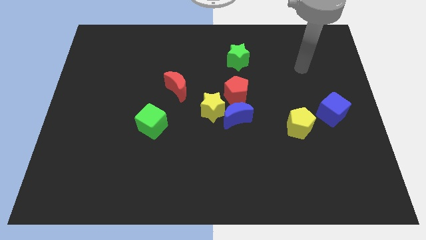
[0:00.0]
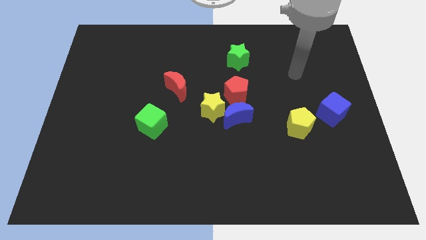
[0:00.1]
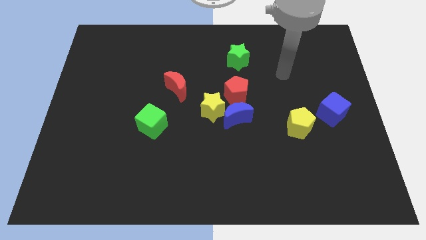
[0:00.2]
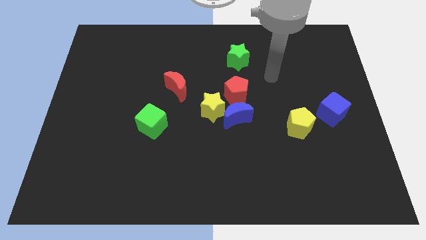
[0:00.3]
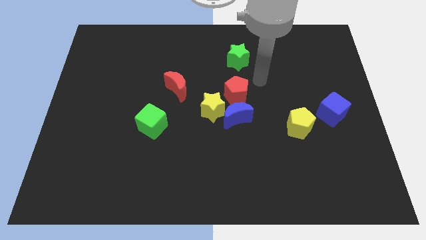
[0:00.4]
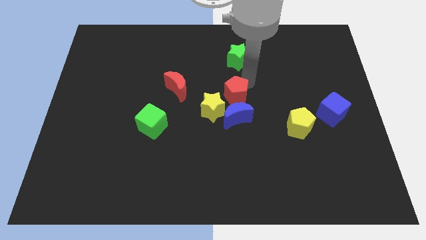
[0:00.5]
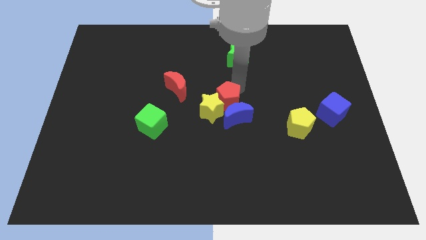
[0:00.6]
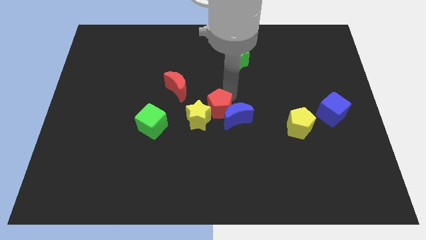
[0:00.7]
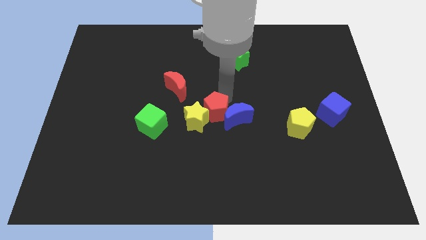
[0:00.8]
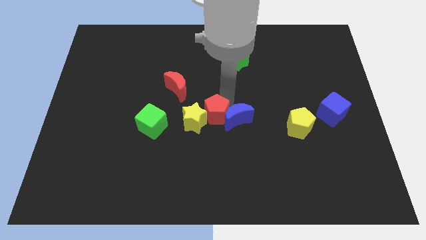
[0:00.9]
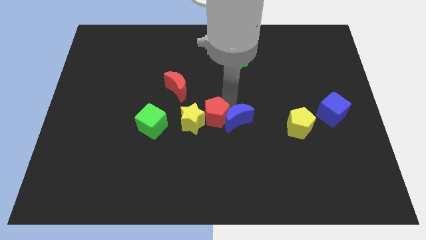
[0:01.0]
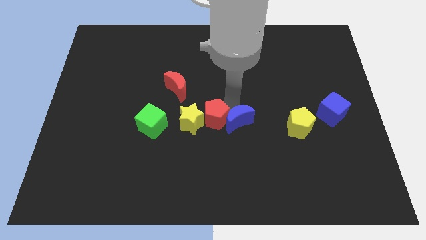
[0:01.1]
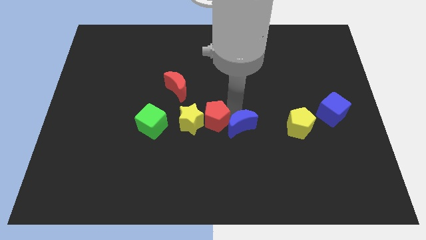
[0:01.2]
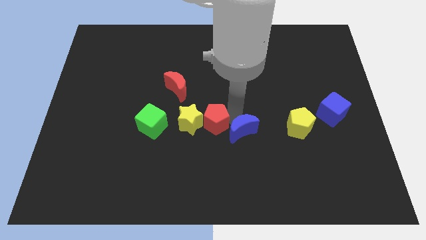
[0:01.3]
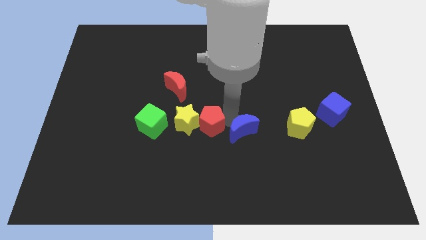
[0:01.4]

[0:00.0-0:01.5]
pull the blue moon apart from the yellow star and red pentagon

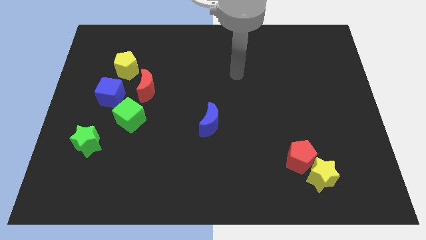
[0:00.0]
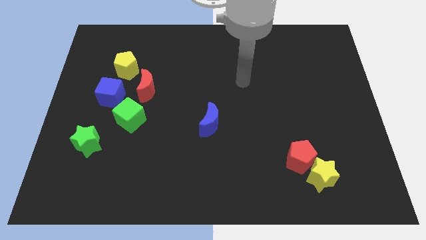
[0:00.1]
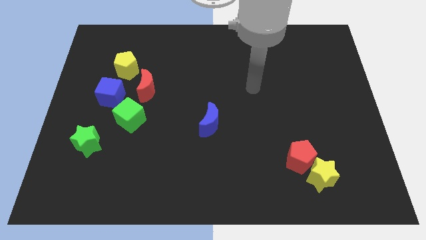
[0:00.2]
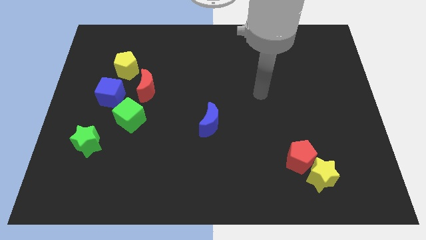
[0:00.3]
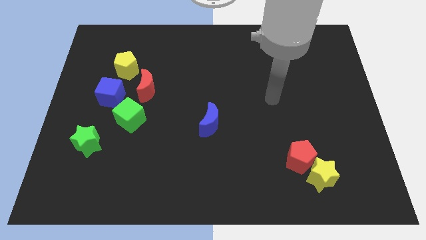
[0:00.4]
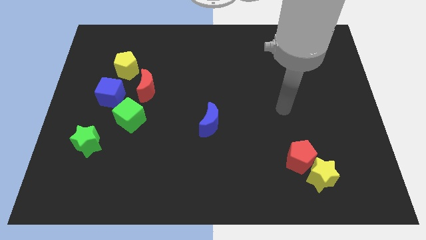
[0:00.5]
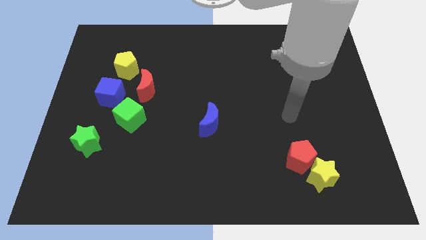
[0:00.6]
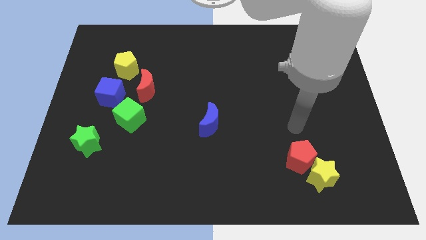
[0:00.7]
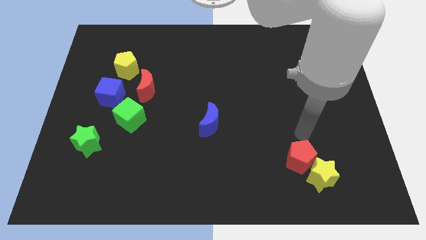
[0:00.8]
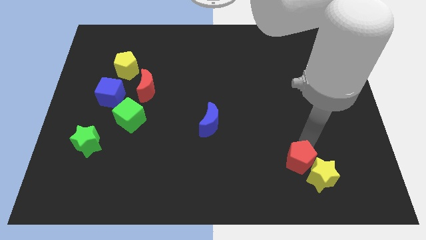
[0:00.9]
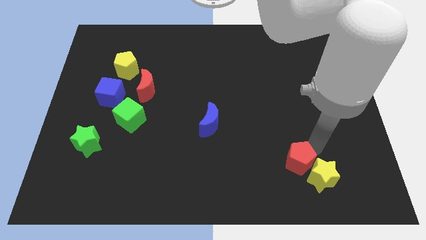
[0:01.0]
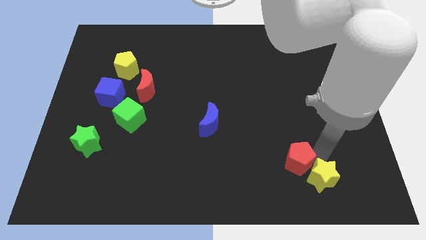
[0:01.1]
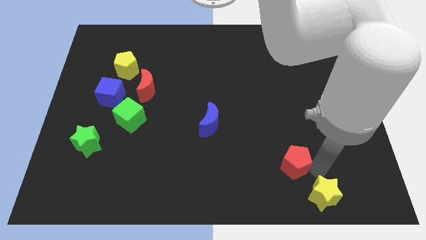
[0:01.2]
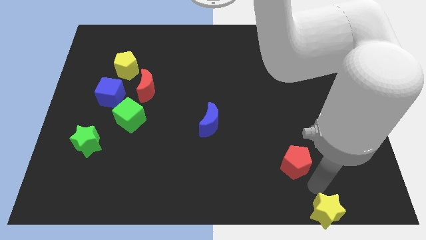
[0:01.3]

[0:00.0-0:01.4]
move the red pentagon away from the yellow star

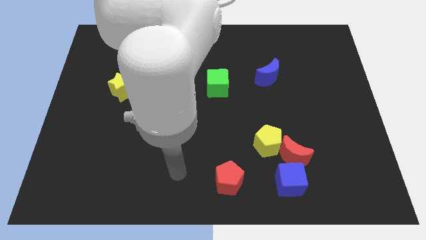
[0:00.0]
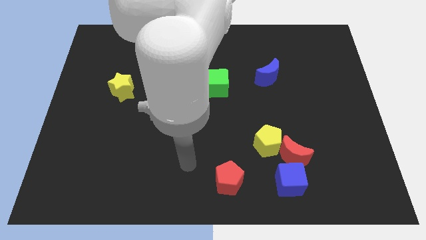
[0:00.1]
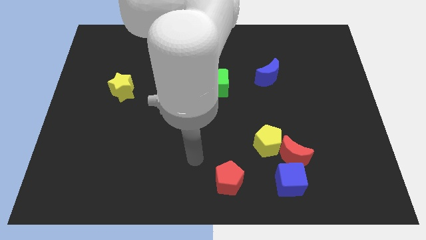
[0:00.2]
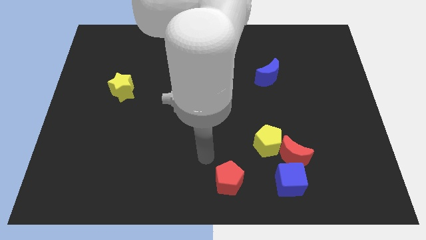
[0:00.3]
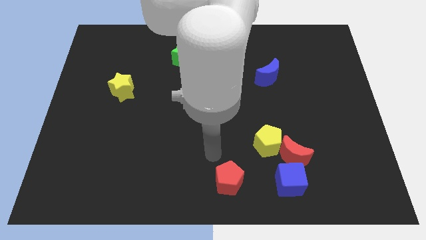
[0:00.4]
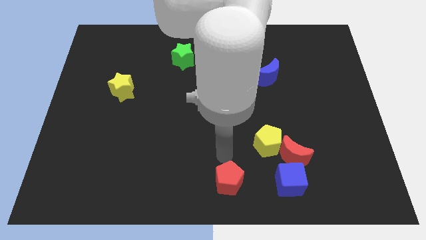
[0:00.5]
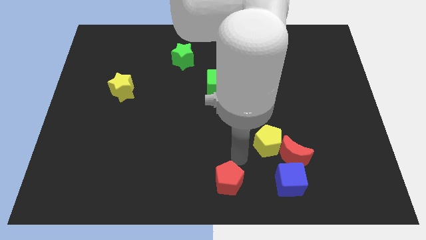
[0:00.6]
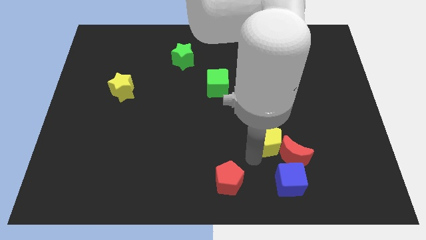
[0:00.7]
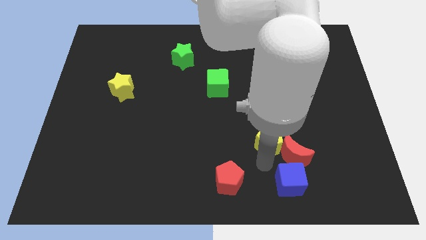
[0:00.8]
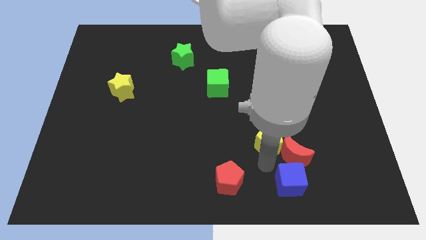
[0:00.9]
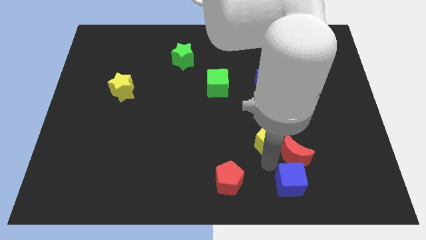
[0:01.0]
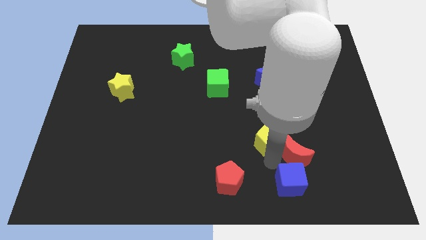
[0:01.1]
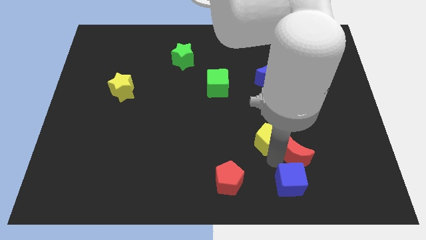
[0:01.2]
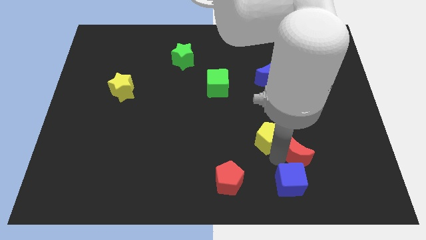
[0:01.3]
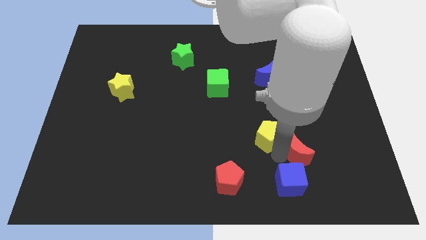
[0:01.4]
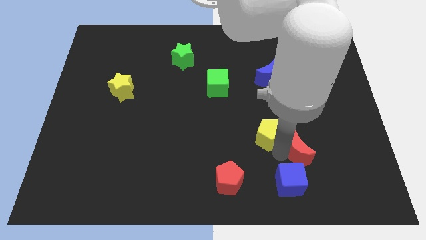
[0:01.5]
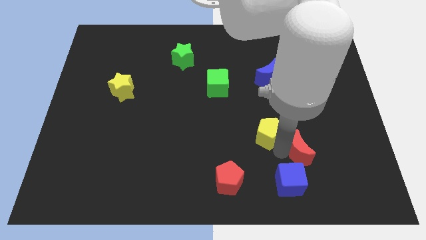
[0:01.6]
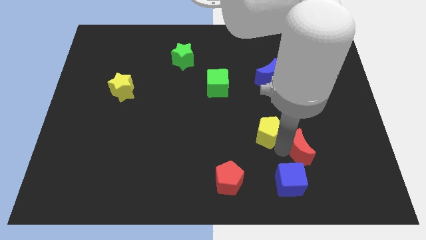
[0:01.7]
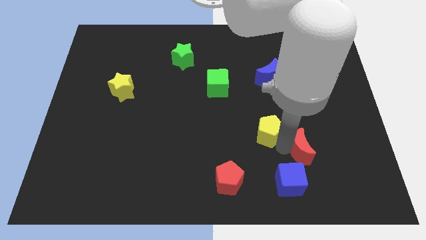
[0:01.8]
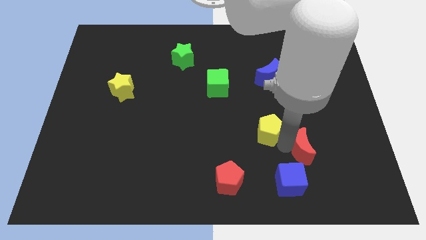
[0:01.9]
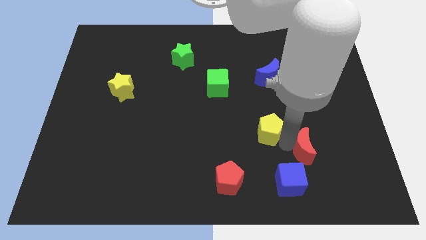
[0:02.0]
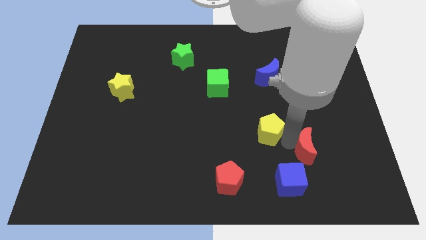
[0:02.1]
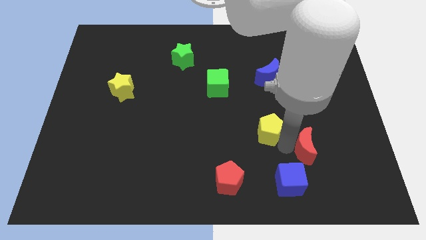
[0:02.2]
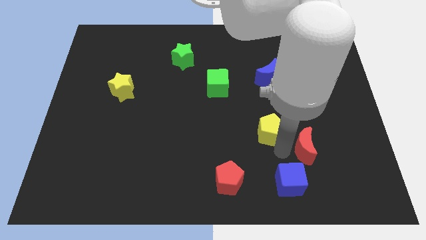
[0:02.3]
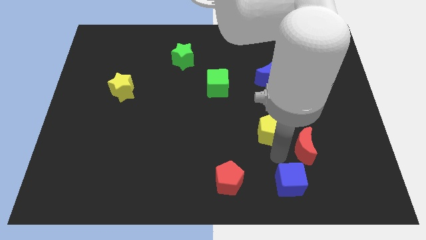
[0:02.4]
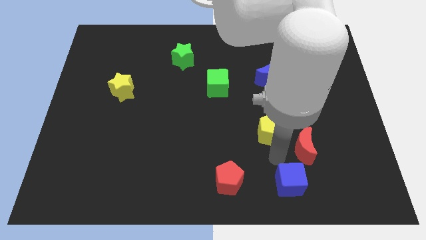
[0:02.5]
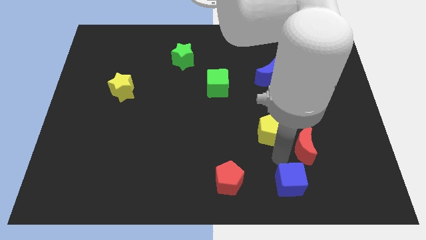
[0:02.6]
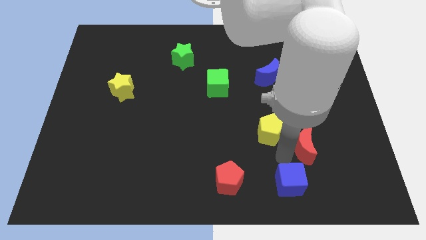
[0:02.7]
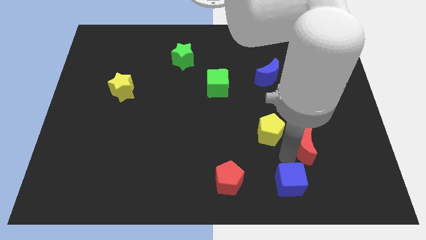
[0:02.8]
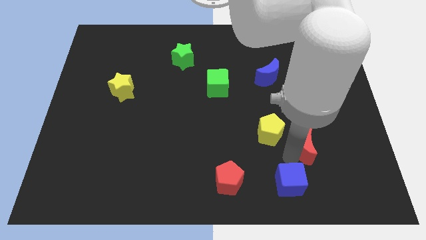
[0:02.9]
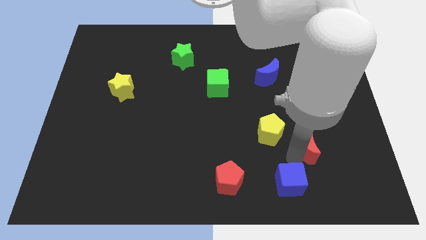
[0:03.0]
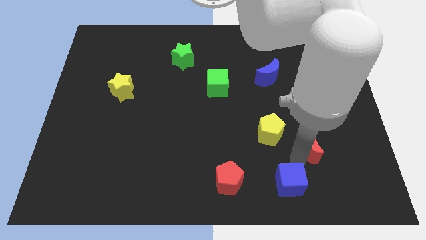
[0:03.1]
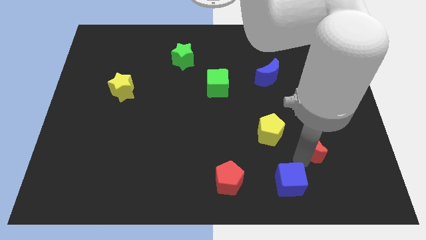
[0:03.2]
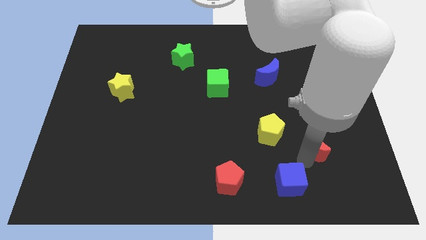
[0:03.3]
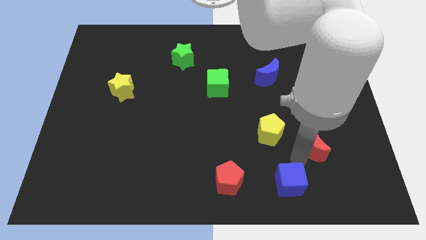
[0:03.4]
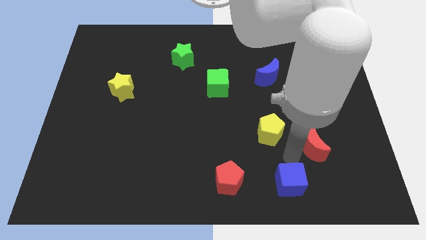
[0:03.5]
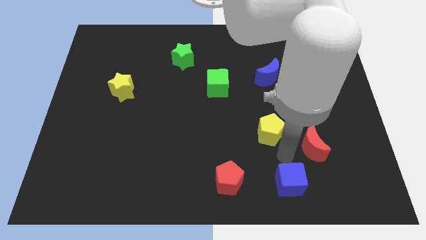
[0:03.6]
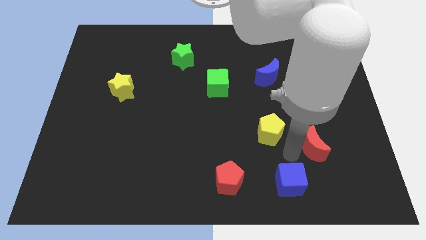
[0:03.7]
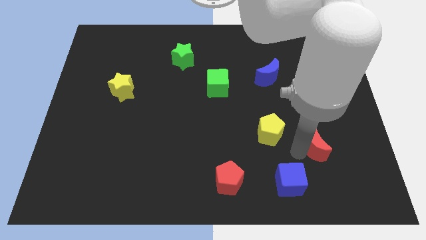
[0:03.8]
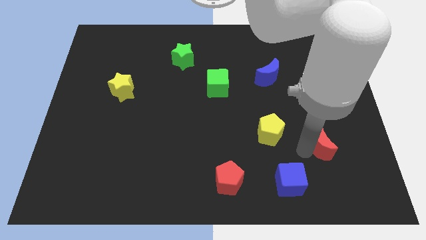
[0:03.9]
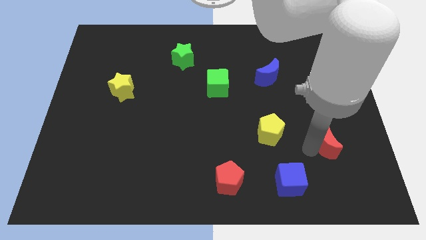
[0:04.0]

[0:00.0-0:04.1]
pull the red moon apart from the yellow pentagon and blue cube

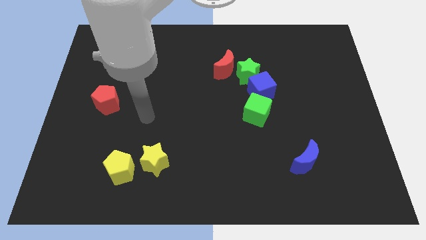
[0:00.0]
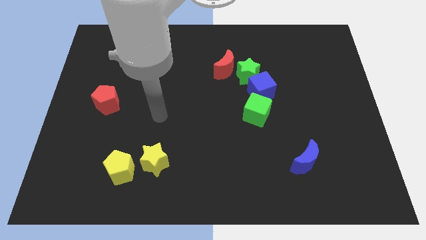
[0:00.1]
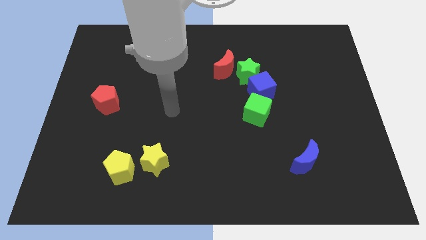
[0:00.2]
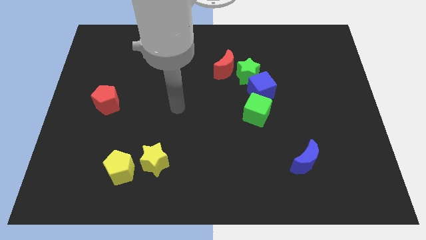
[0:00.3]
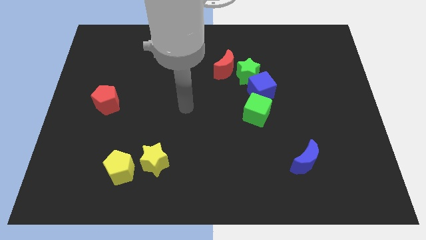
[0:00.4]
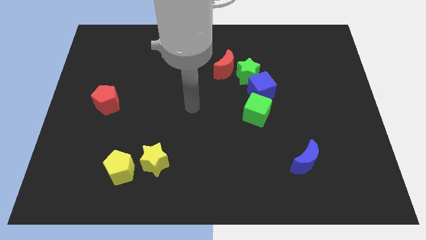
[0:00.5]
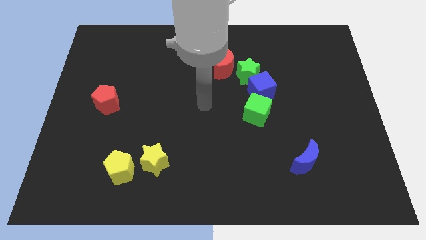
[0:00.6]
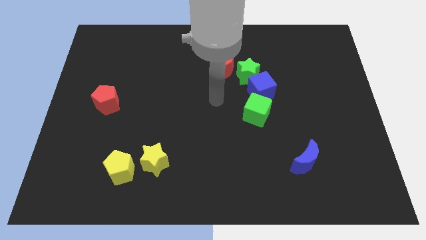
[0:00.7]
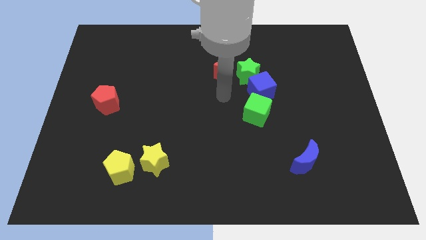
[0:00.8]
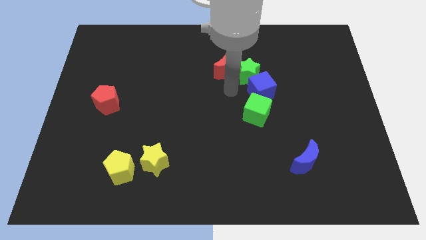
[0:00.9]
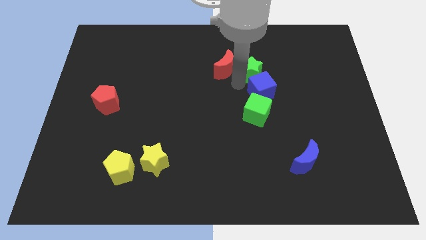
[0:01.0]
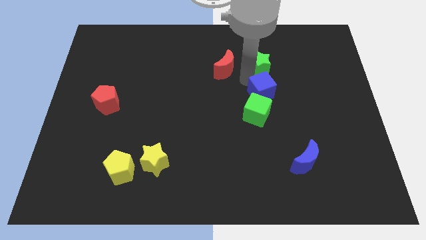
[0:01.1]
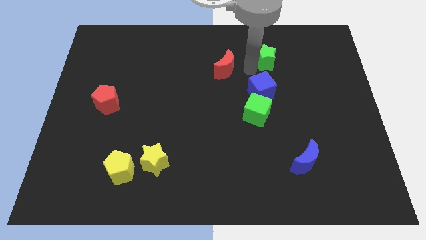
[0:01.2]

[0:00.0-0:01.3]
pull the red moon apart from the green star

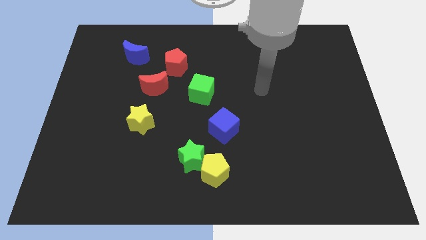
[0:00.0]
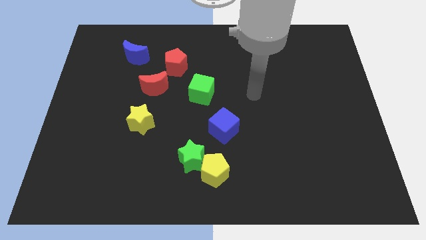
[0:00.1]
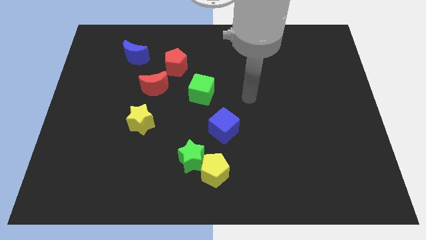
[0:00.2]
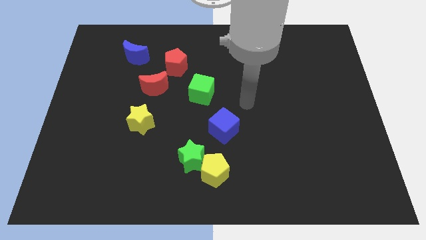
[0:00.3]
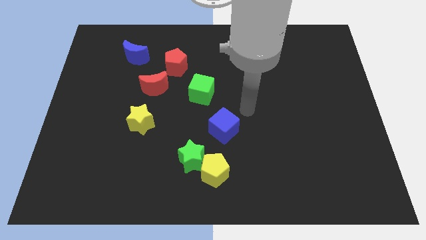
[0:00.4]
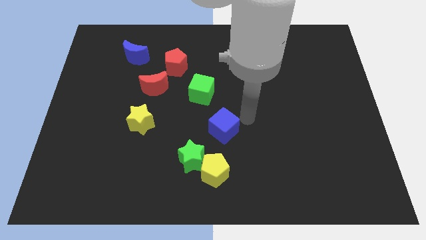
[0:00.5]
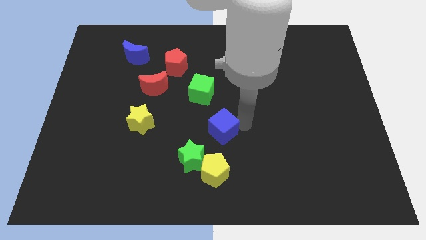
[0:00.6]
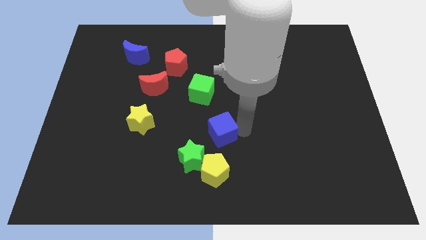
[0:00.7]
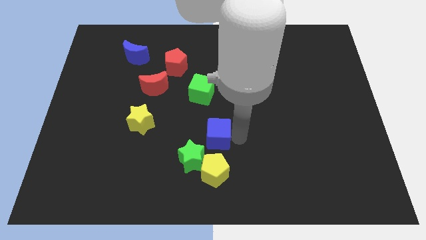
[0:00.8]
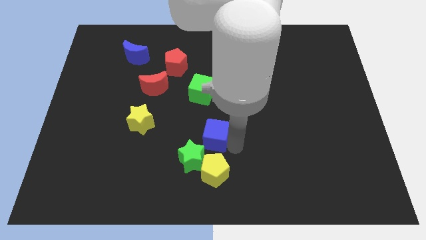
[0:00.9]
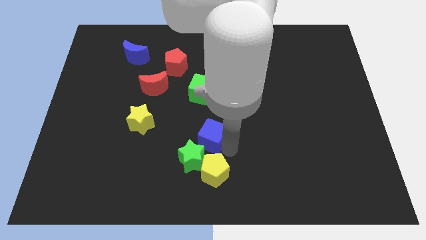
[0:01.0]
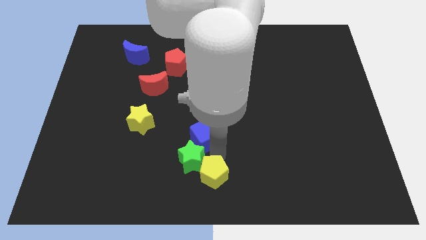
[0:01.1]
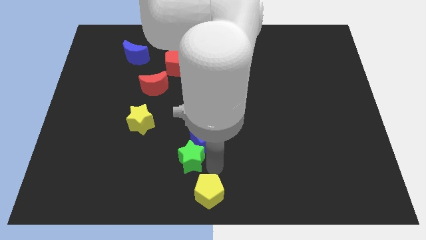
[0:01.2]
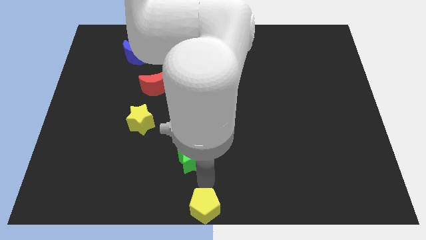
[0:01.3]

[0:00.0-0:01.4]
pull the green star apart from the yellow pentagon
